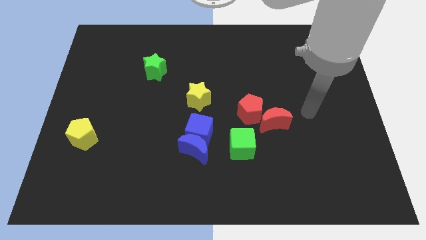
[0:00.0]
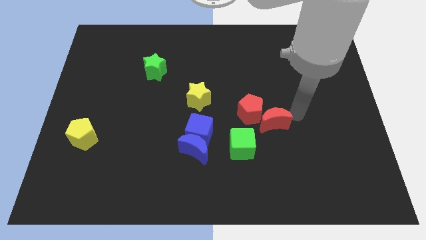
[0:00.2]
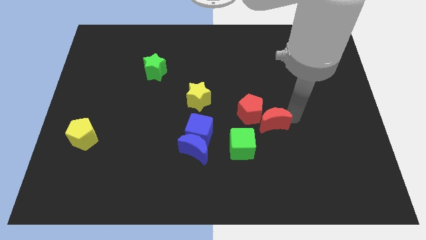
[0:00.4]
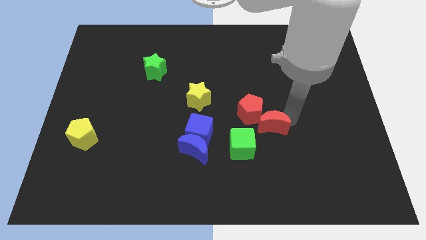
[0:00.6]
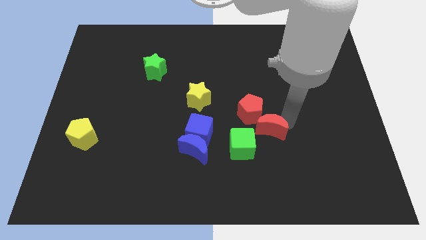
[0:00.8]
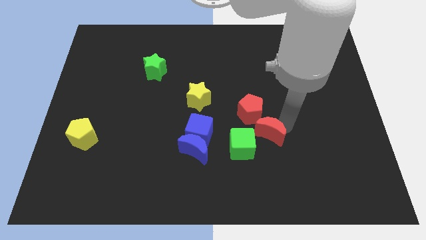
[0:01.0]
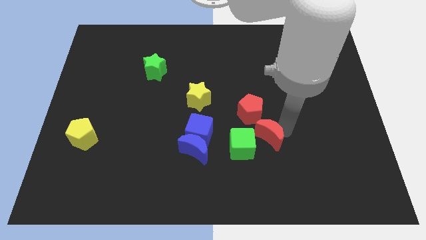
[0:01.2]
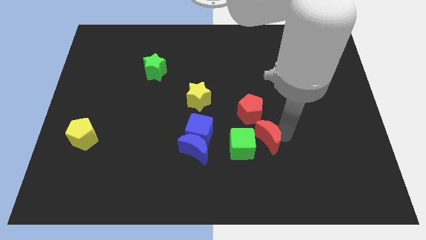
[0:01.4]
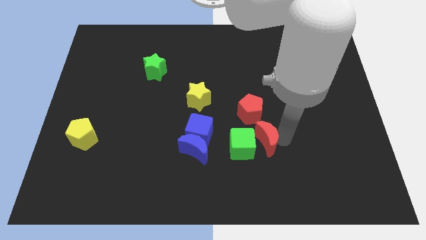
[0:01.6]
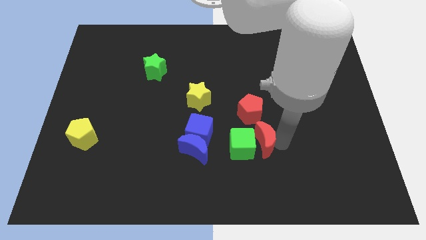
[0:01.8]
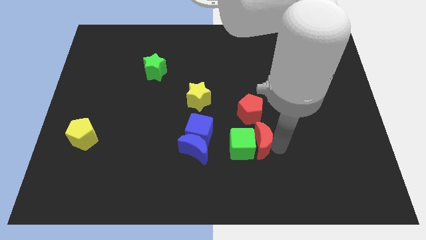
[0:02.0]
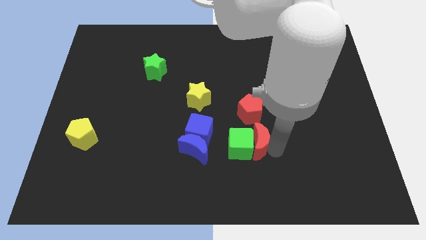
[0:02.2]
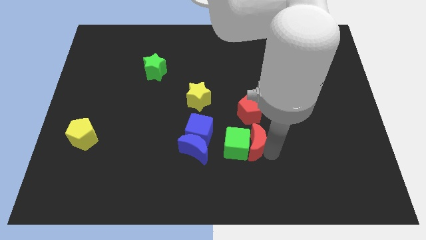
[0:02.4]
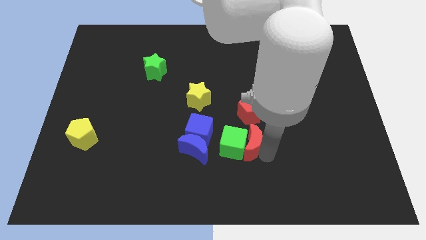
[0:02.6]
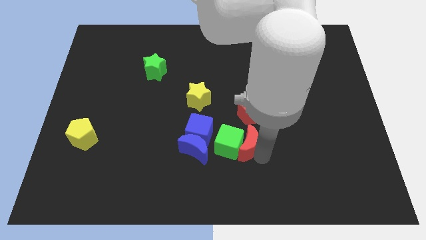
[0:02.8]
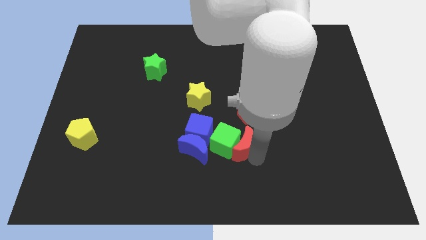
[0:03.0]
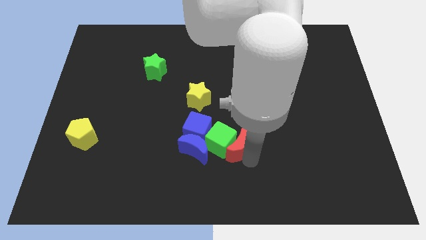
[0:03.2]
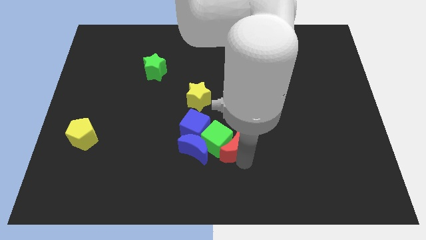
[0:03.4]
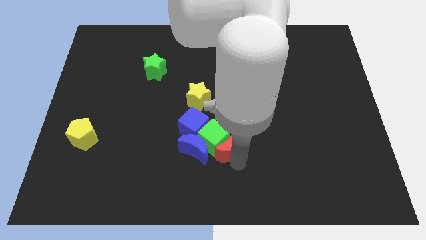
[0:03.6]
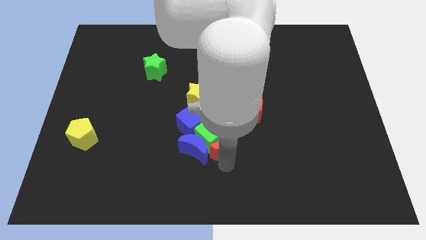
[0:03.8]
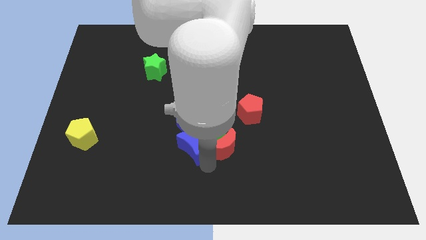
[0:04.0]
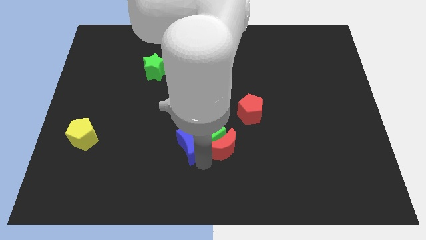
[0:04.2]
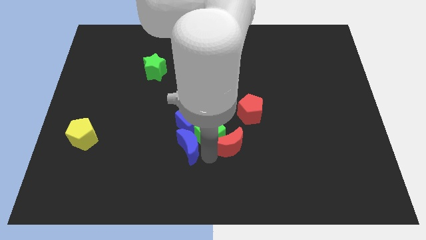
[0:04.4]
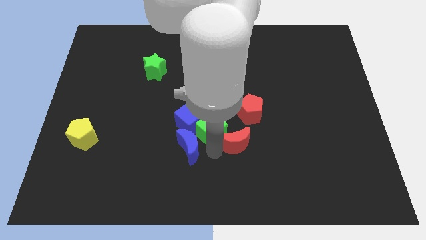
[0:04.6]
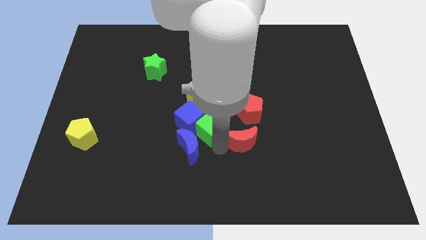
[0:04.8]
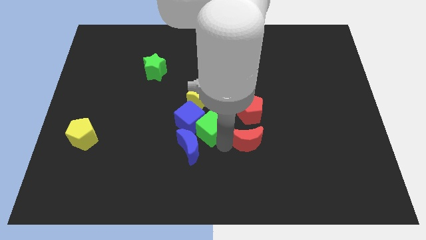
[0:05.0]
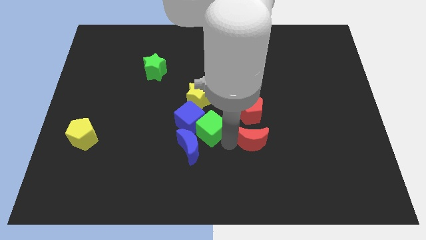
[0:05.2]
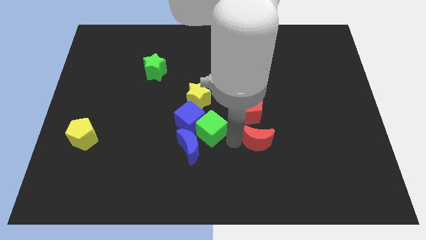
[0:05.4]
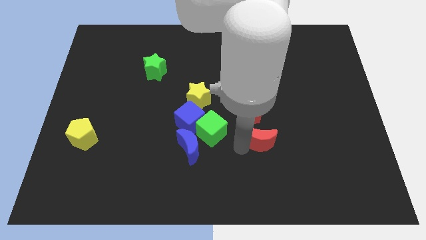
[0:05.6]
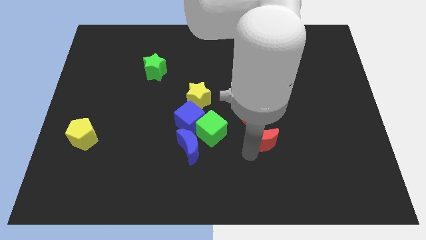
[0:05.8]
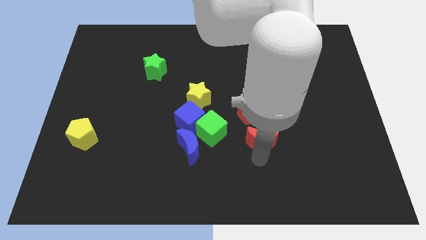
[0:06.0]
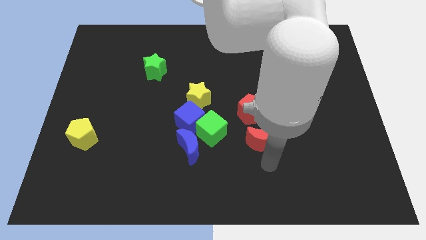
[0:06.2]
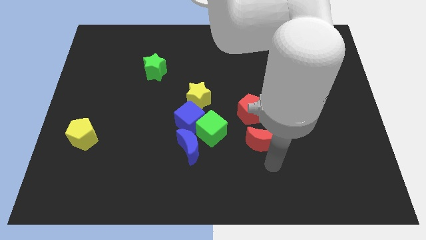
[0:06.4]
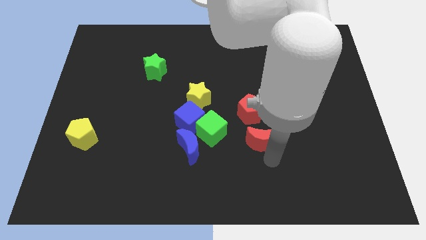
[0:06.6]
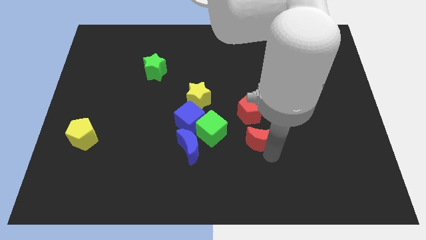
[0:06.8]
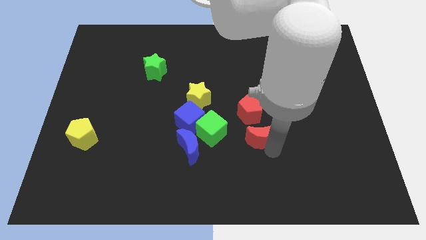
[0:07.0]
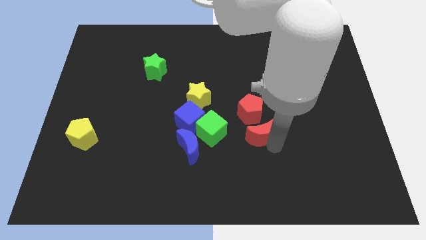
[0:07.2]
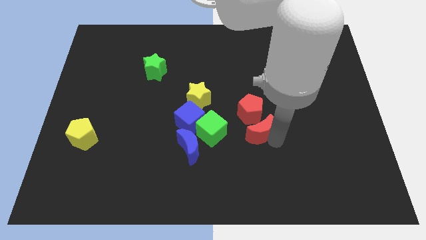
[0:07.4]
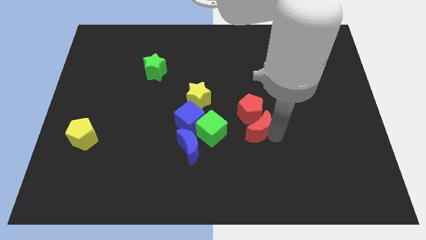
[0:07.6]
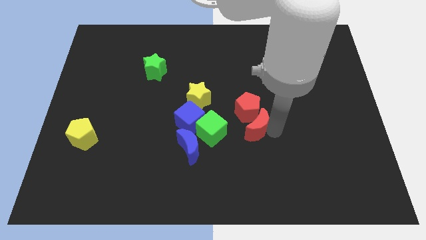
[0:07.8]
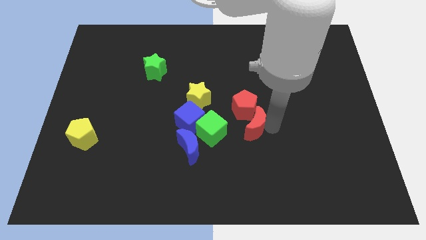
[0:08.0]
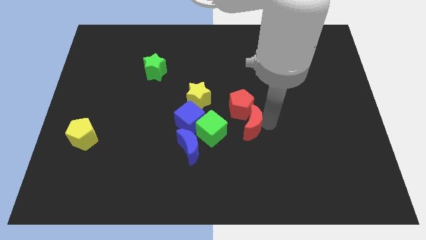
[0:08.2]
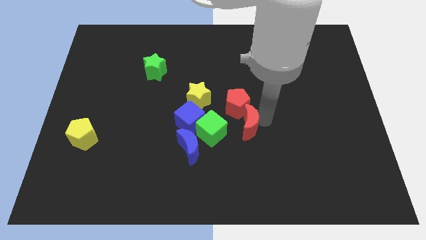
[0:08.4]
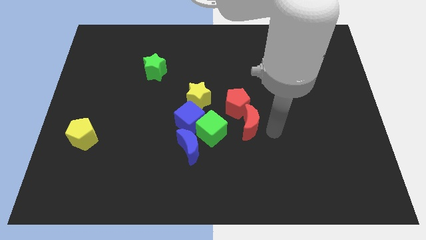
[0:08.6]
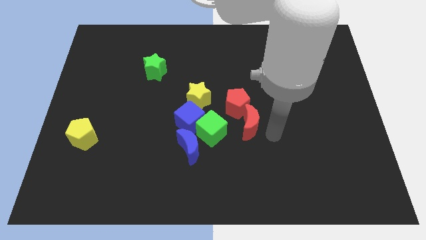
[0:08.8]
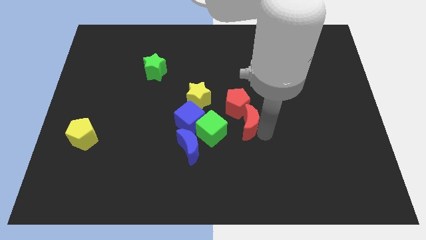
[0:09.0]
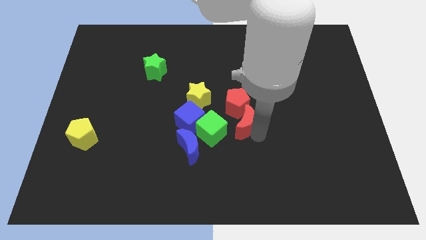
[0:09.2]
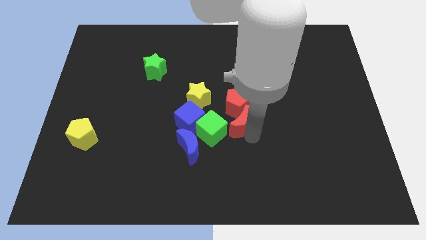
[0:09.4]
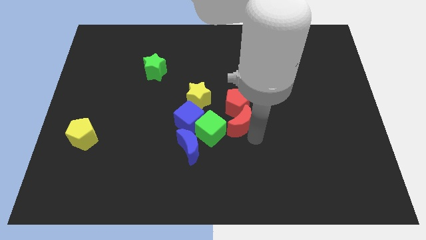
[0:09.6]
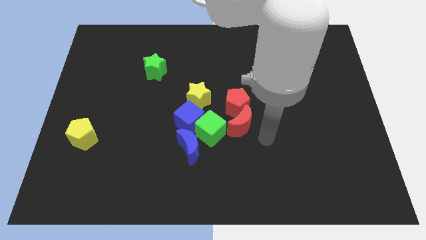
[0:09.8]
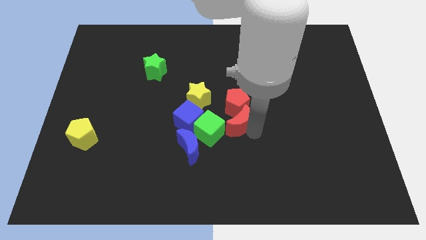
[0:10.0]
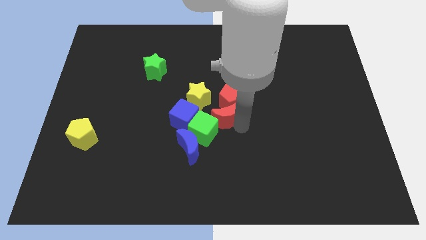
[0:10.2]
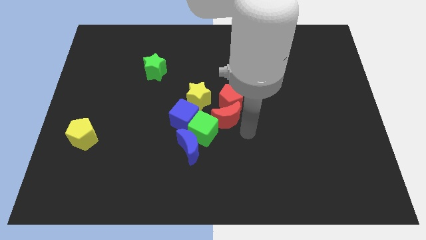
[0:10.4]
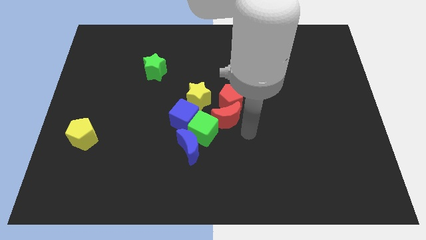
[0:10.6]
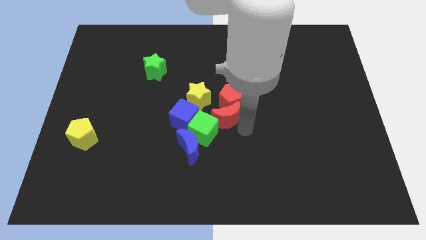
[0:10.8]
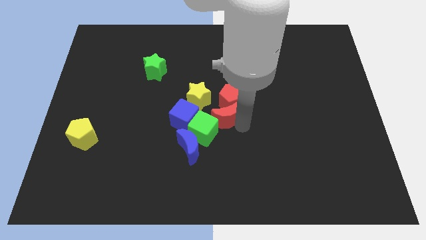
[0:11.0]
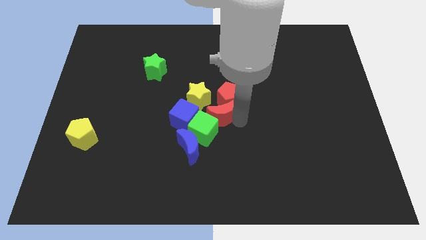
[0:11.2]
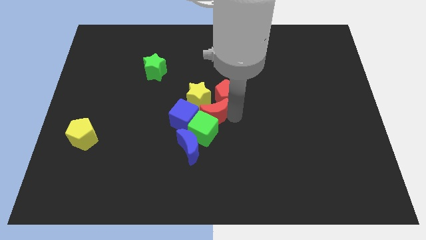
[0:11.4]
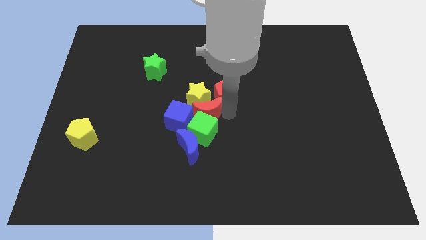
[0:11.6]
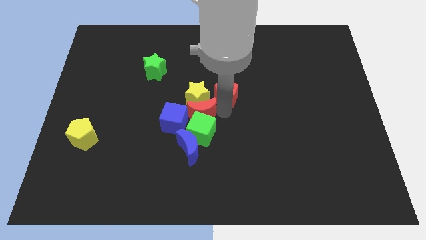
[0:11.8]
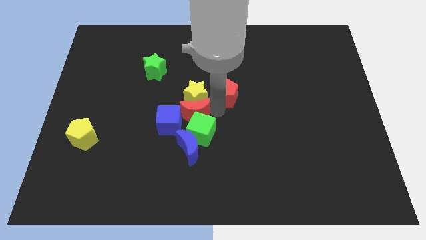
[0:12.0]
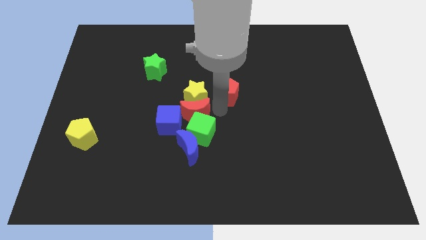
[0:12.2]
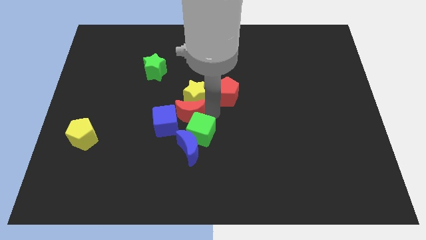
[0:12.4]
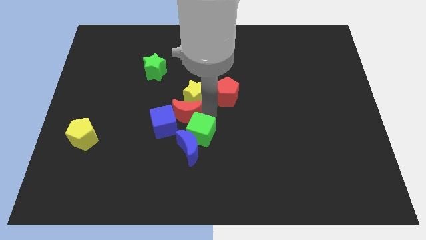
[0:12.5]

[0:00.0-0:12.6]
slide the red moon to the left

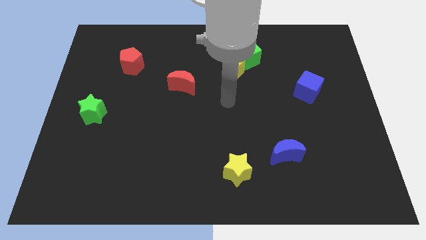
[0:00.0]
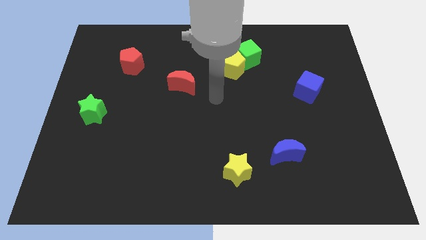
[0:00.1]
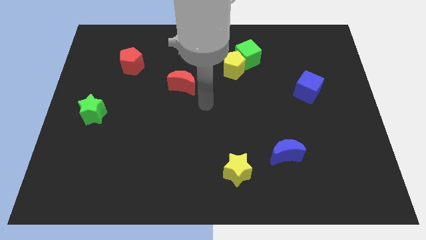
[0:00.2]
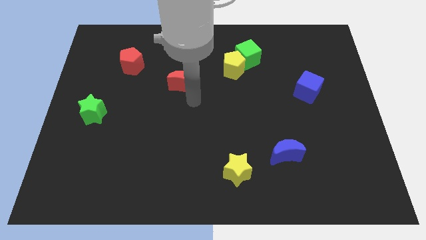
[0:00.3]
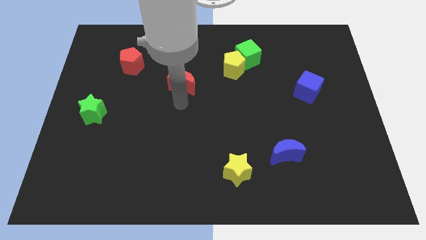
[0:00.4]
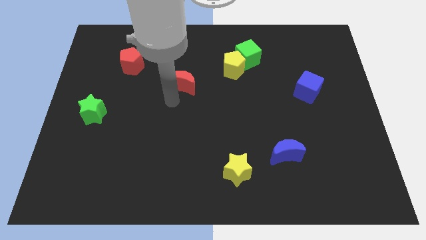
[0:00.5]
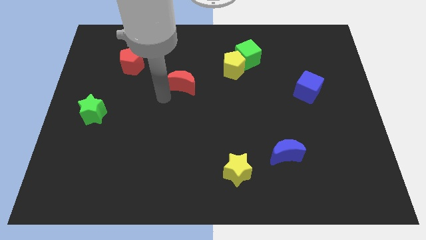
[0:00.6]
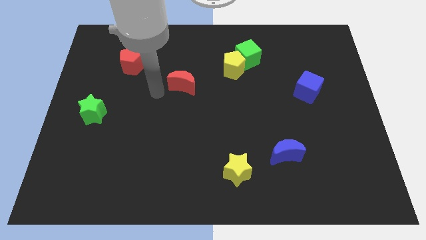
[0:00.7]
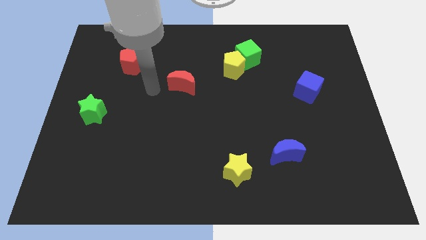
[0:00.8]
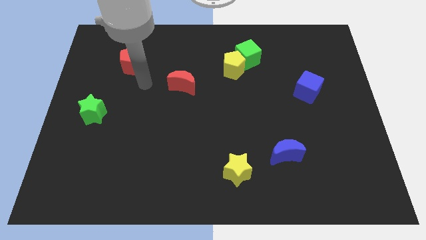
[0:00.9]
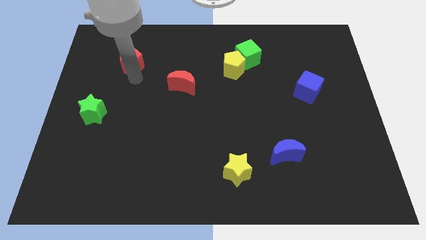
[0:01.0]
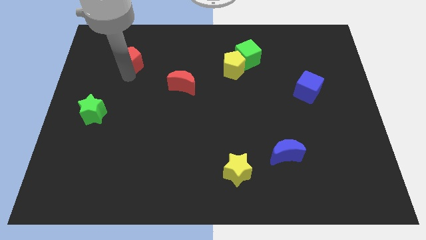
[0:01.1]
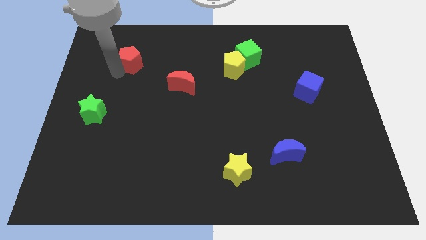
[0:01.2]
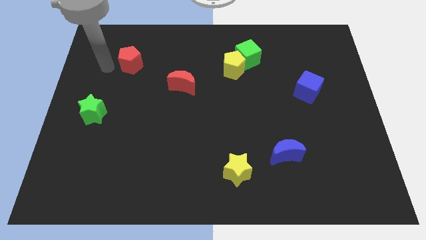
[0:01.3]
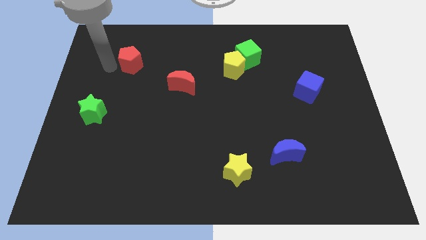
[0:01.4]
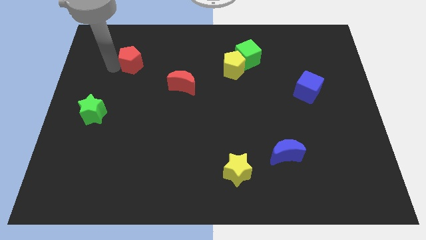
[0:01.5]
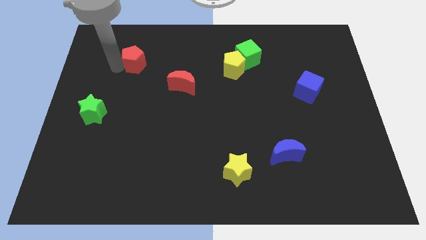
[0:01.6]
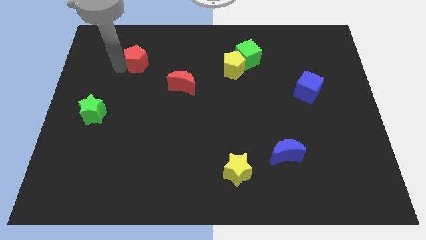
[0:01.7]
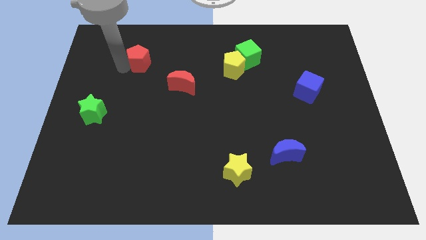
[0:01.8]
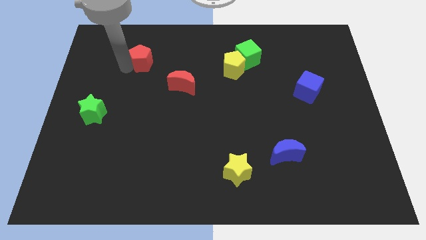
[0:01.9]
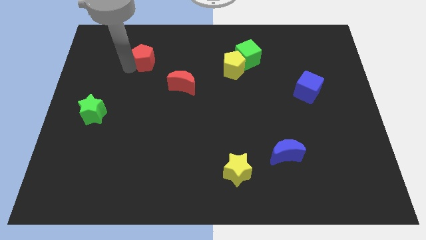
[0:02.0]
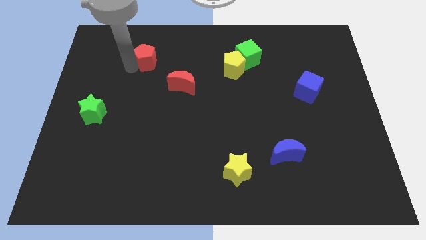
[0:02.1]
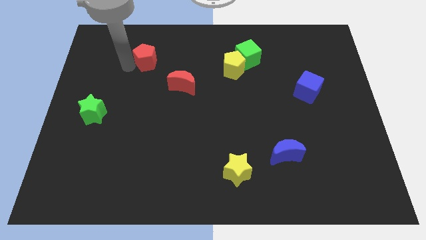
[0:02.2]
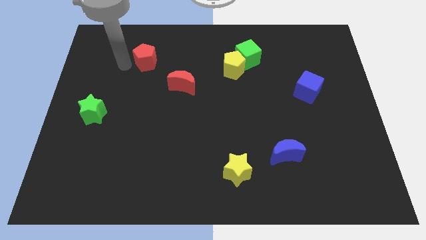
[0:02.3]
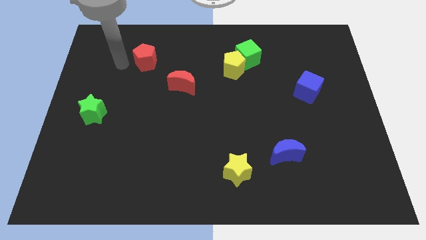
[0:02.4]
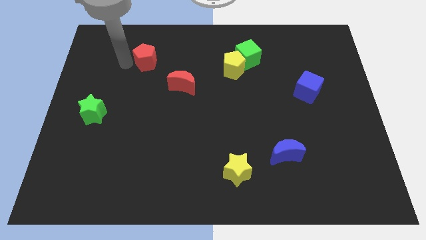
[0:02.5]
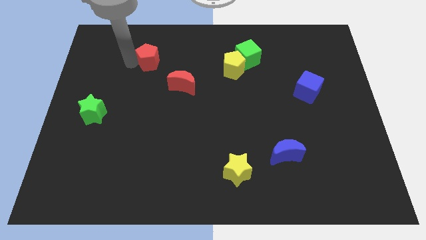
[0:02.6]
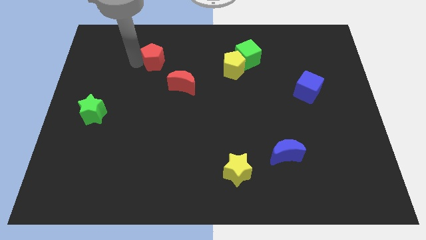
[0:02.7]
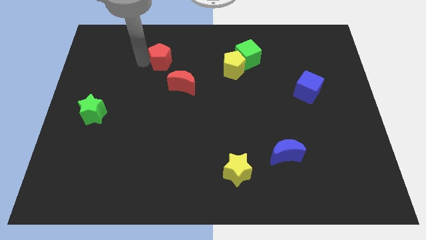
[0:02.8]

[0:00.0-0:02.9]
slightly slide the red pentagon to the right
